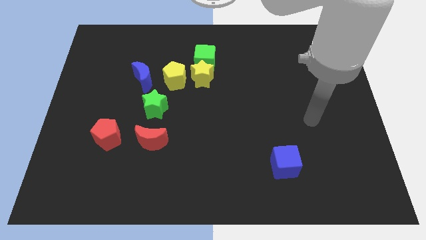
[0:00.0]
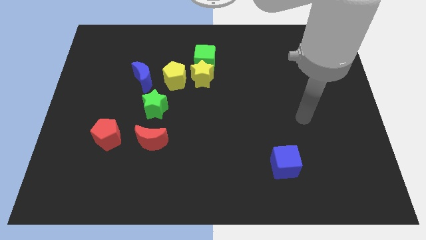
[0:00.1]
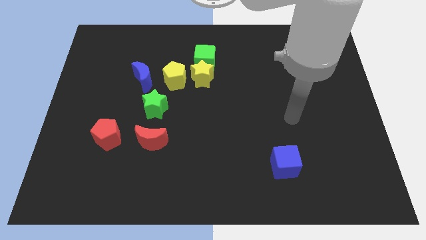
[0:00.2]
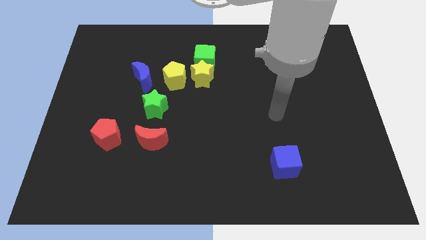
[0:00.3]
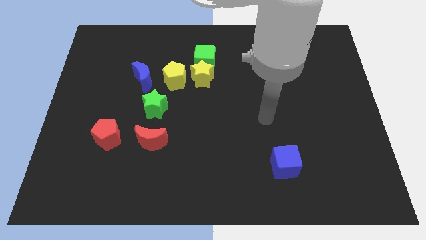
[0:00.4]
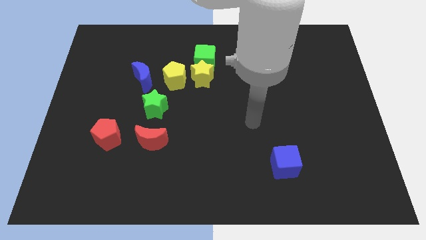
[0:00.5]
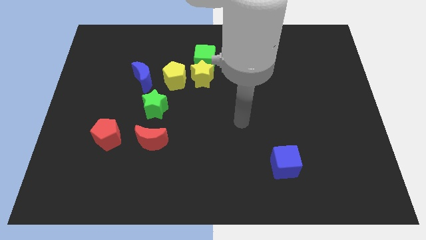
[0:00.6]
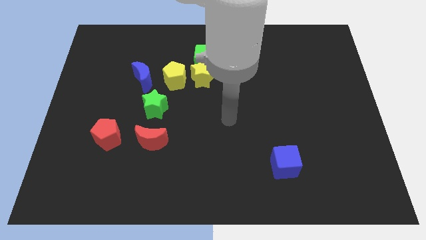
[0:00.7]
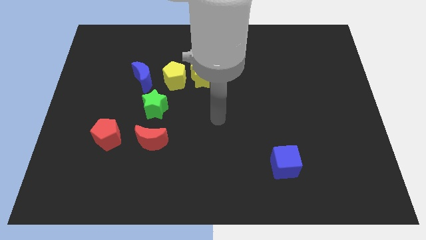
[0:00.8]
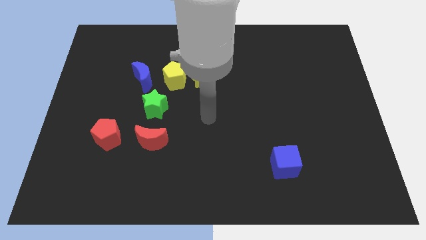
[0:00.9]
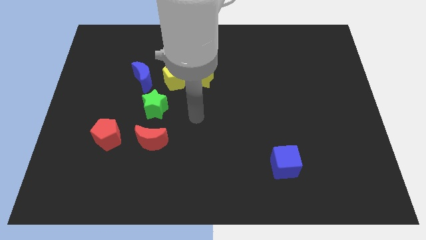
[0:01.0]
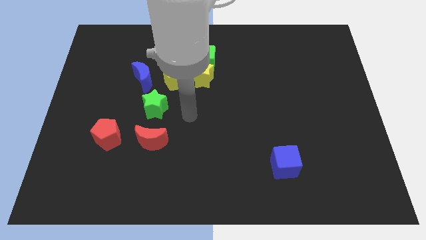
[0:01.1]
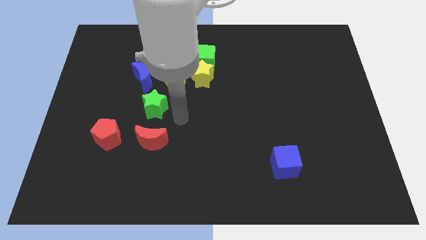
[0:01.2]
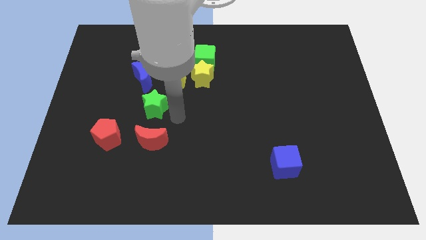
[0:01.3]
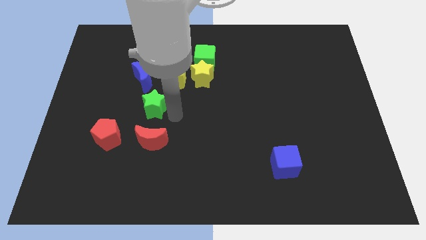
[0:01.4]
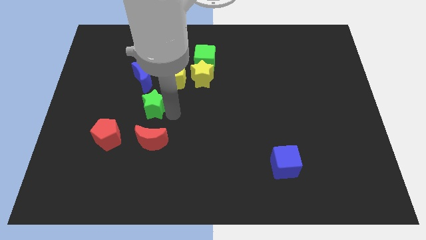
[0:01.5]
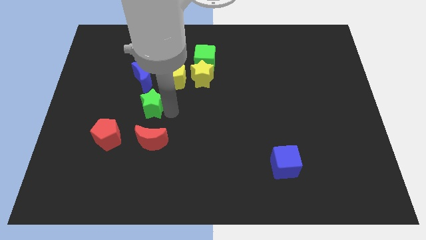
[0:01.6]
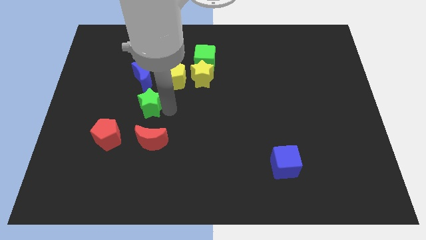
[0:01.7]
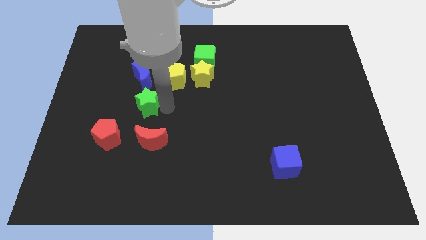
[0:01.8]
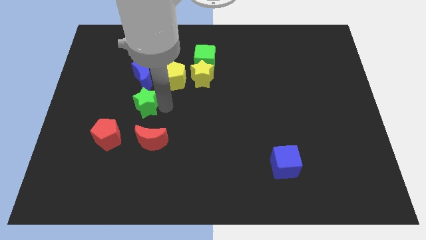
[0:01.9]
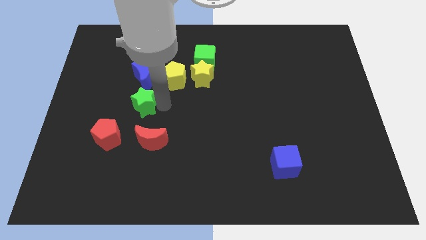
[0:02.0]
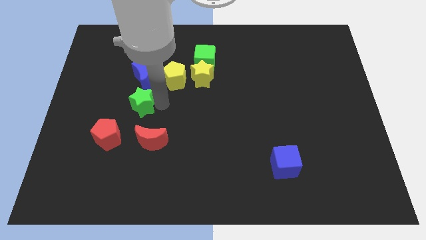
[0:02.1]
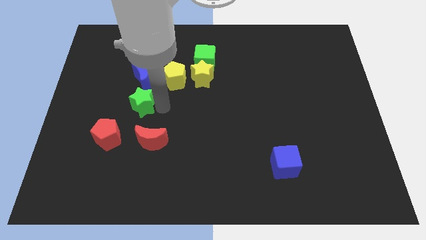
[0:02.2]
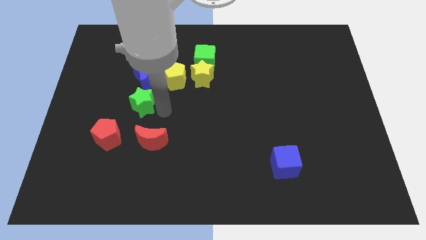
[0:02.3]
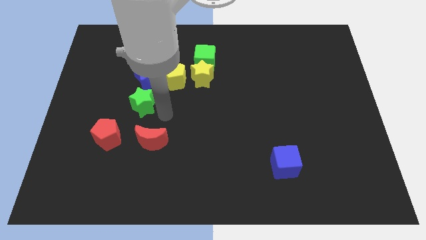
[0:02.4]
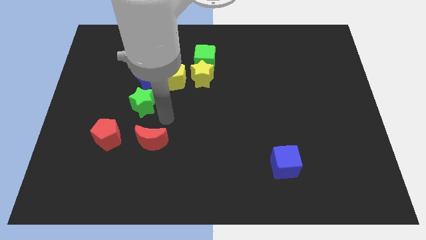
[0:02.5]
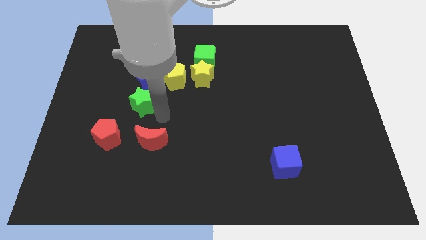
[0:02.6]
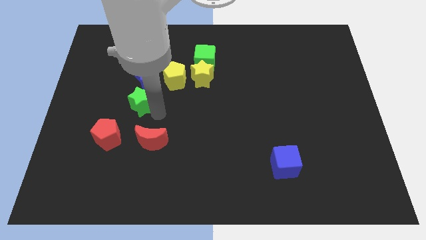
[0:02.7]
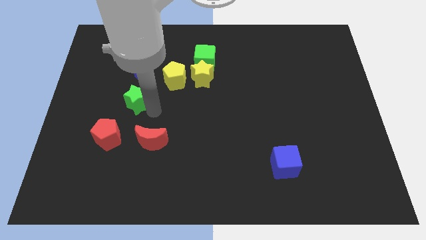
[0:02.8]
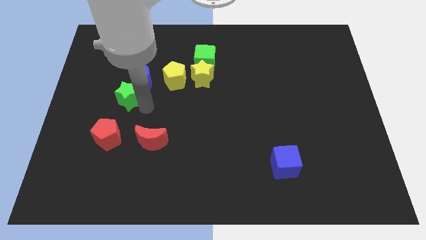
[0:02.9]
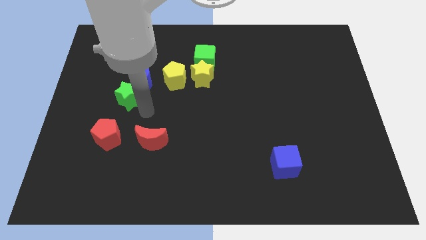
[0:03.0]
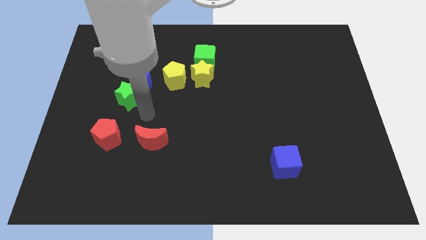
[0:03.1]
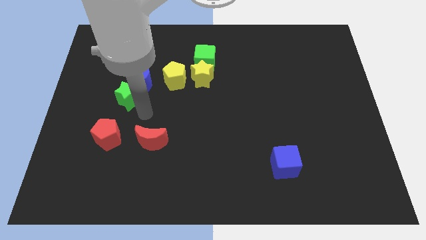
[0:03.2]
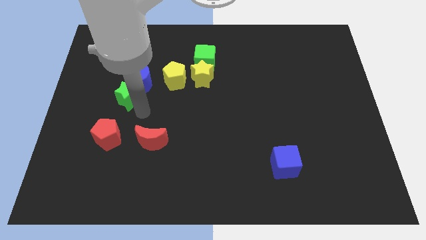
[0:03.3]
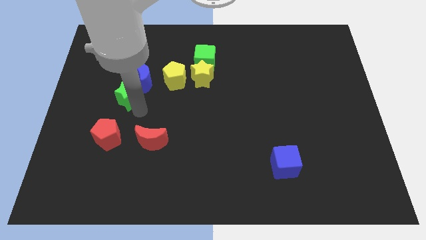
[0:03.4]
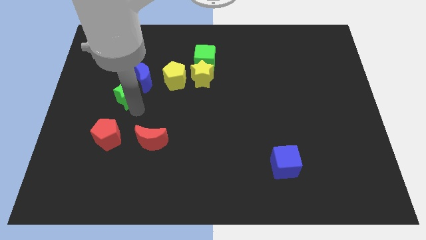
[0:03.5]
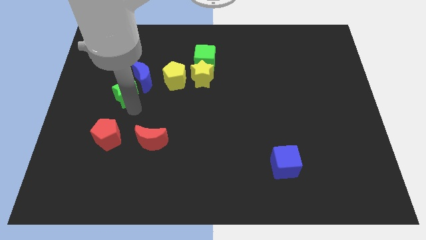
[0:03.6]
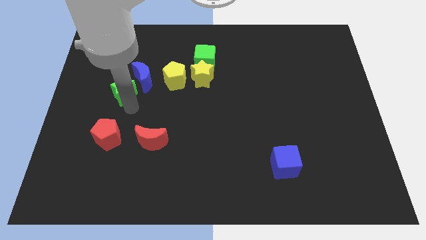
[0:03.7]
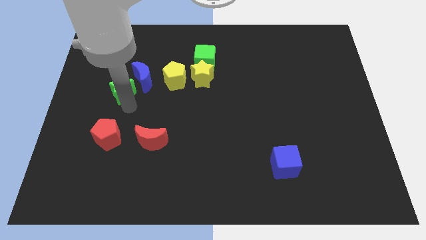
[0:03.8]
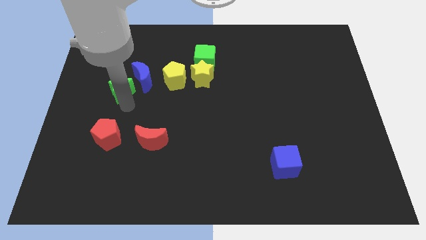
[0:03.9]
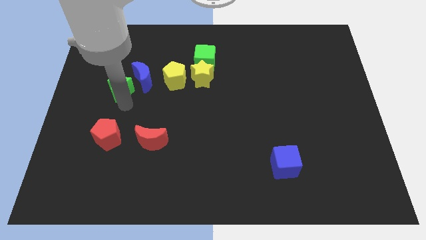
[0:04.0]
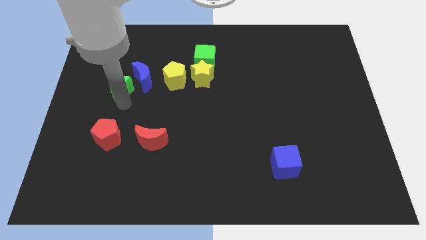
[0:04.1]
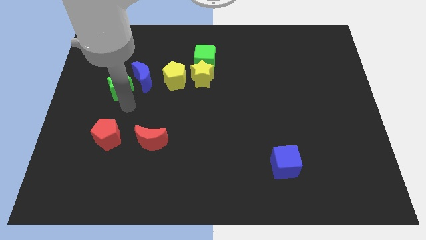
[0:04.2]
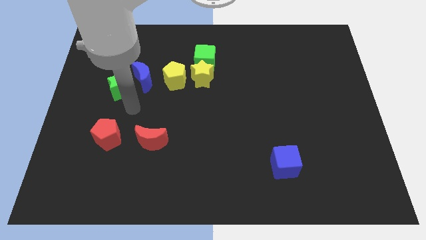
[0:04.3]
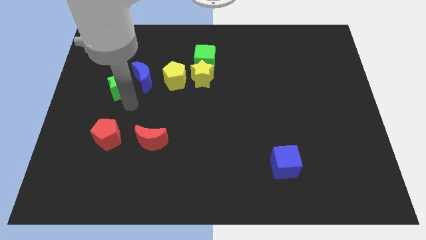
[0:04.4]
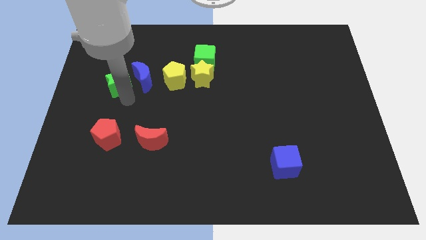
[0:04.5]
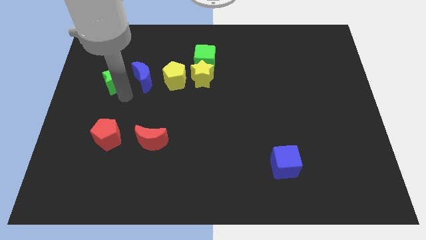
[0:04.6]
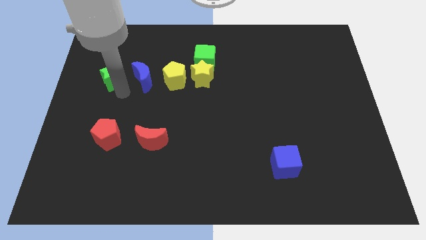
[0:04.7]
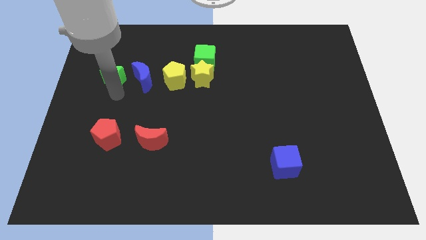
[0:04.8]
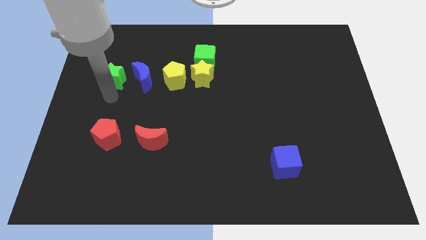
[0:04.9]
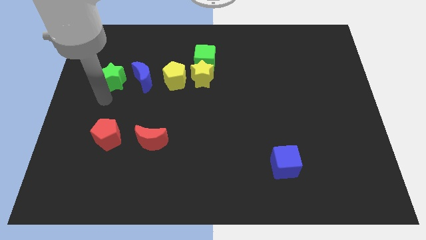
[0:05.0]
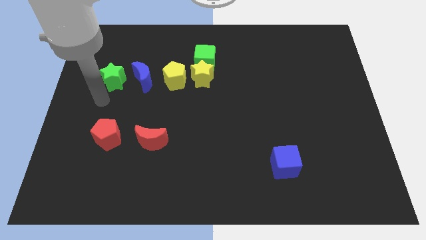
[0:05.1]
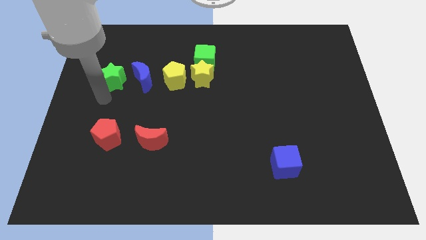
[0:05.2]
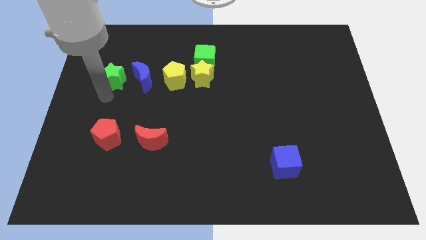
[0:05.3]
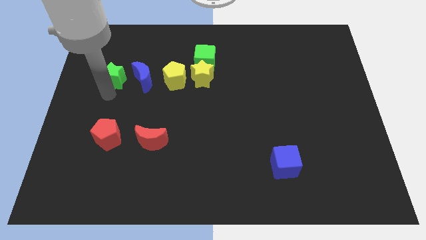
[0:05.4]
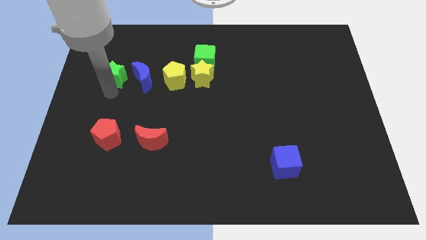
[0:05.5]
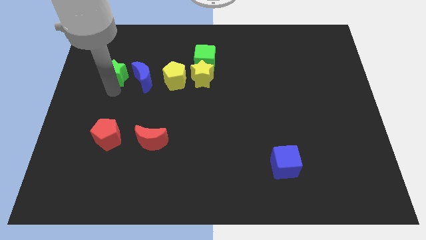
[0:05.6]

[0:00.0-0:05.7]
slide the green star to the top left of the blue moon

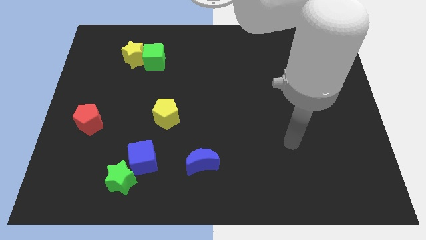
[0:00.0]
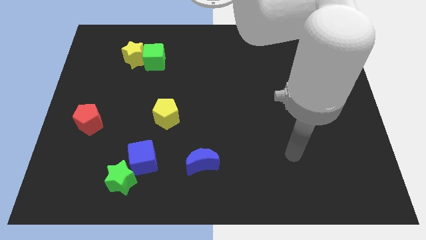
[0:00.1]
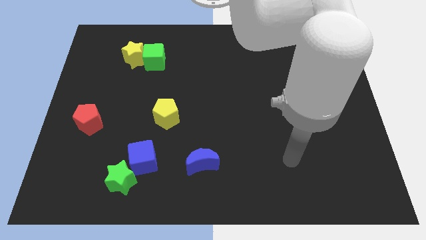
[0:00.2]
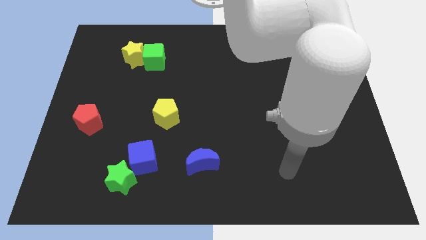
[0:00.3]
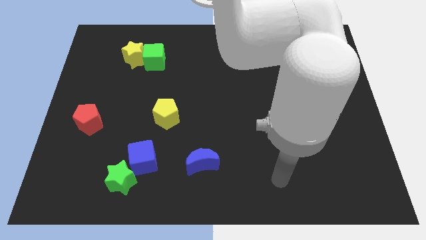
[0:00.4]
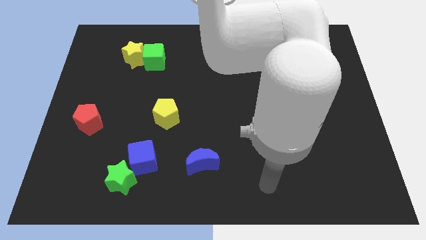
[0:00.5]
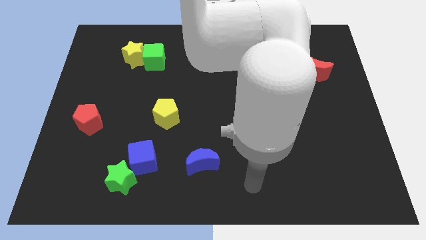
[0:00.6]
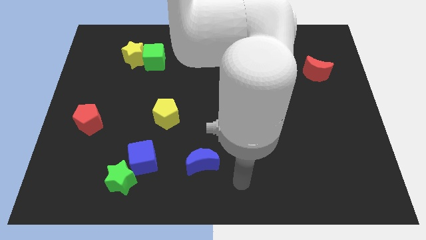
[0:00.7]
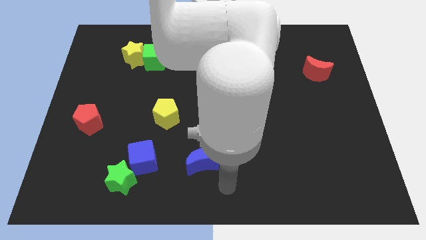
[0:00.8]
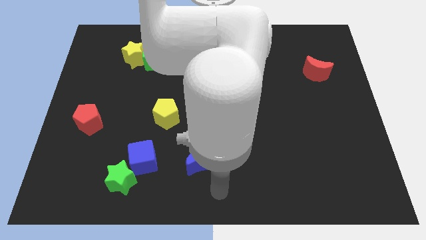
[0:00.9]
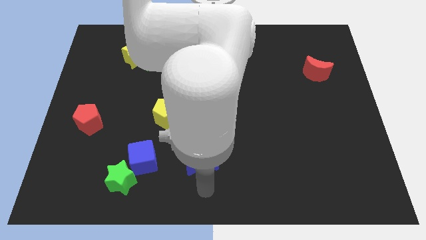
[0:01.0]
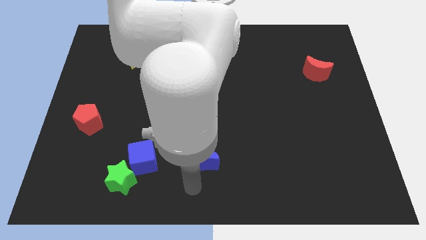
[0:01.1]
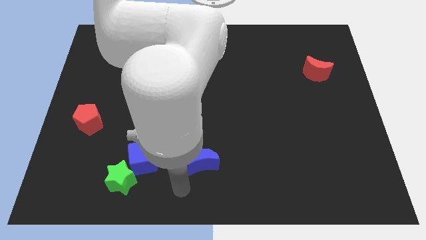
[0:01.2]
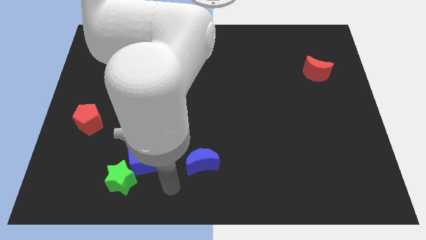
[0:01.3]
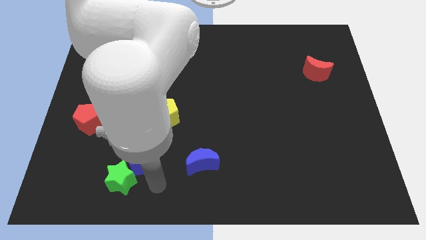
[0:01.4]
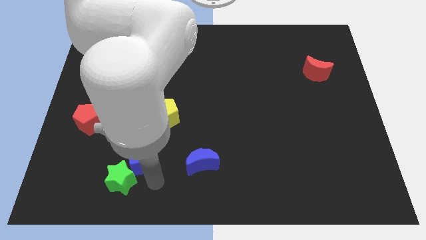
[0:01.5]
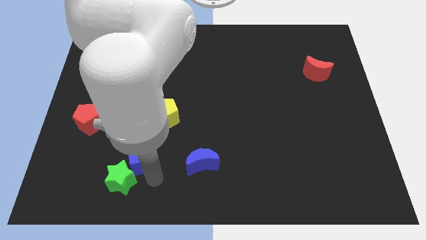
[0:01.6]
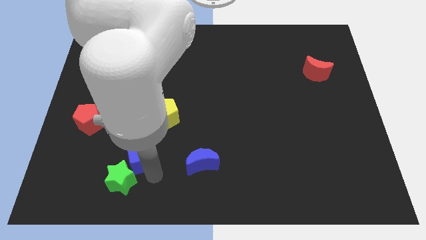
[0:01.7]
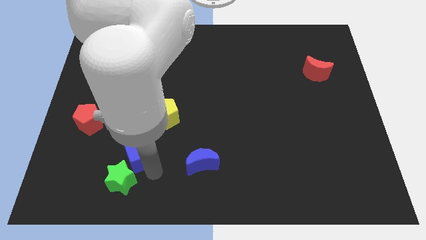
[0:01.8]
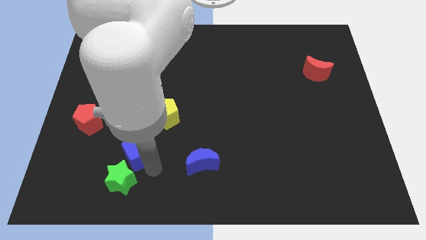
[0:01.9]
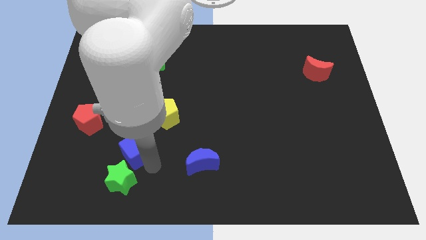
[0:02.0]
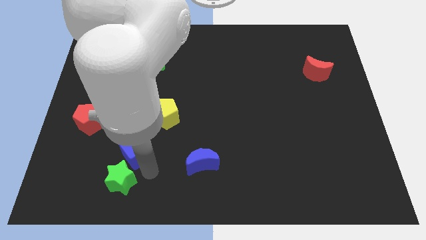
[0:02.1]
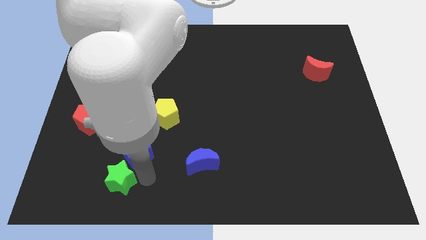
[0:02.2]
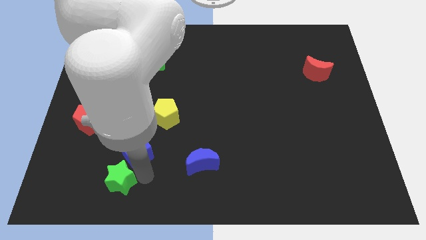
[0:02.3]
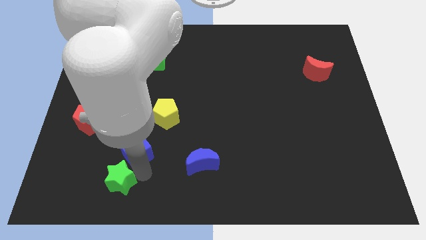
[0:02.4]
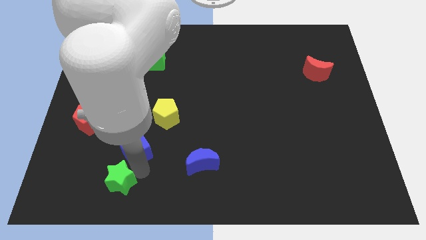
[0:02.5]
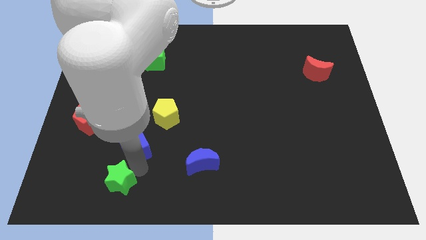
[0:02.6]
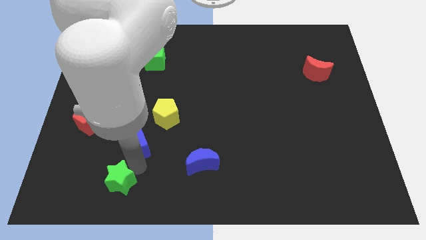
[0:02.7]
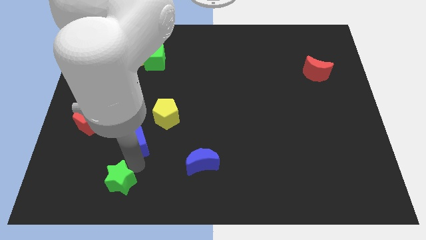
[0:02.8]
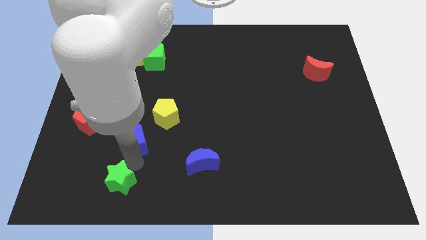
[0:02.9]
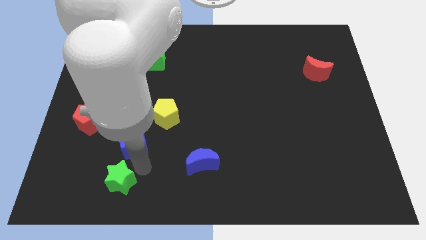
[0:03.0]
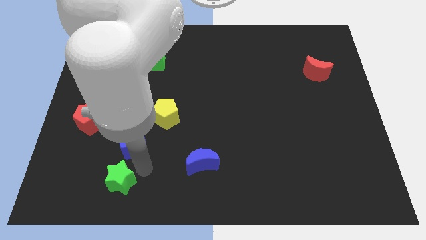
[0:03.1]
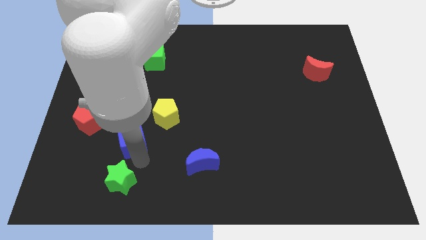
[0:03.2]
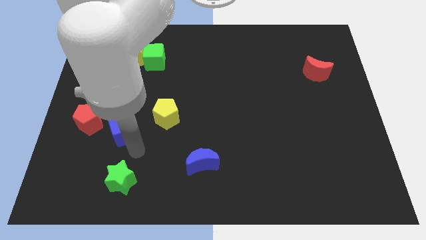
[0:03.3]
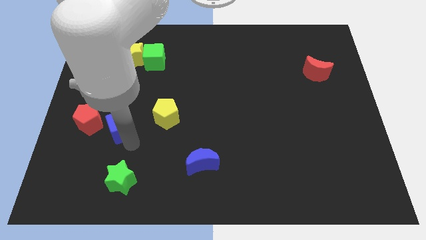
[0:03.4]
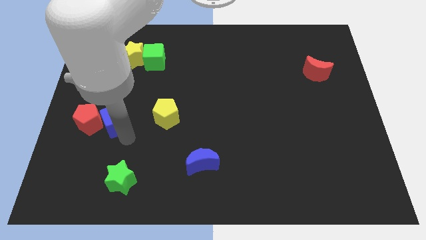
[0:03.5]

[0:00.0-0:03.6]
put the blue cube to the top right of the red pentagon
